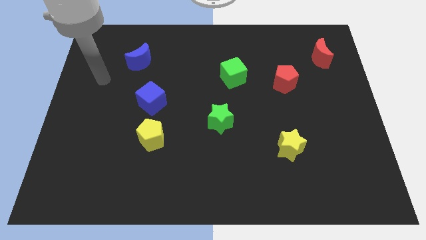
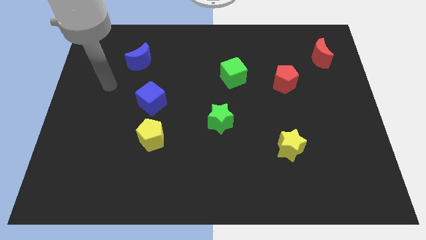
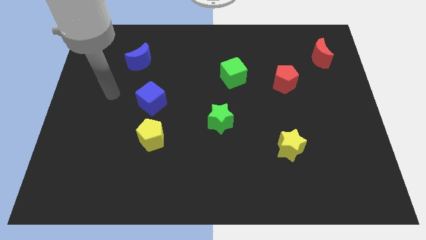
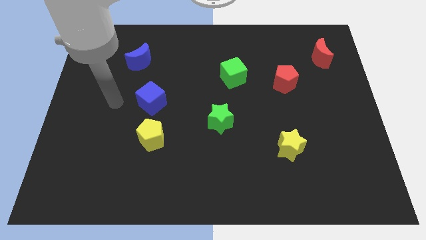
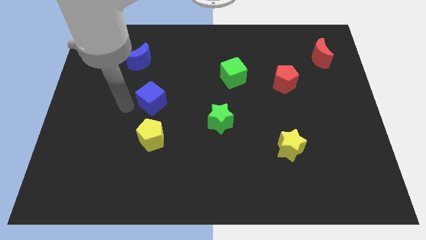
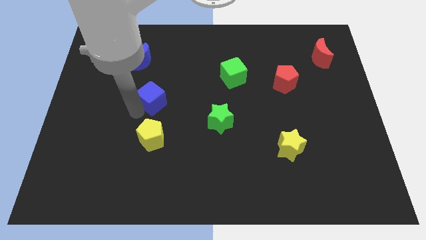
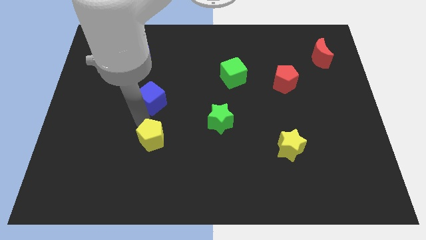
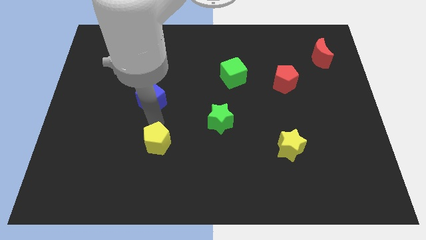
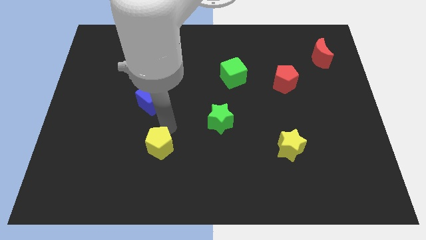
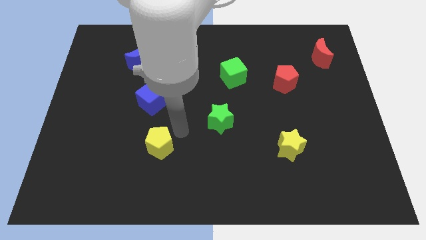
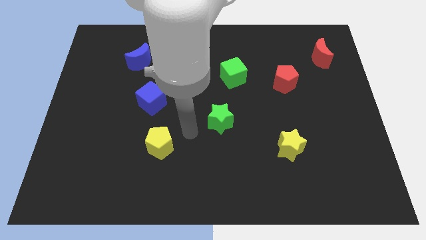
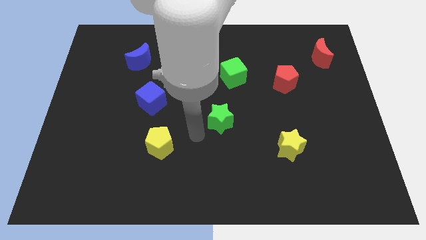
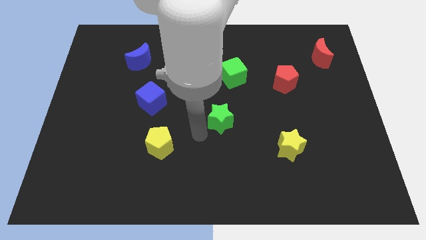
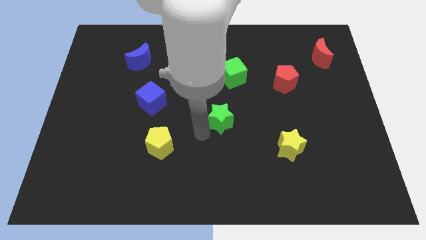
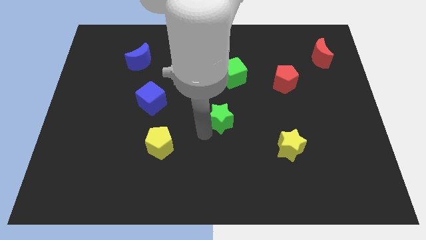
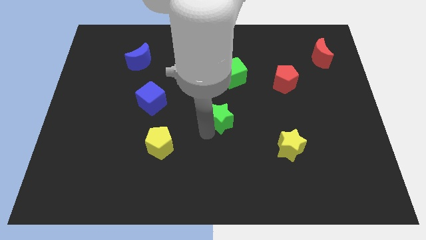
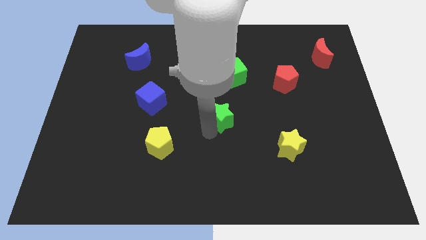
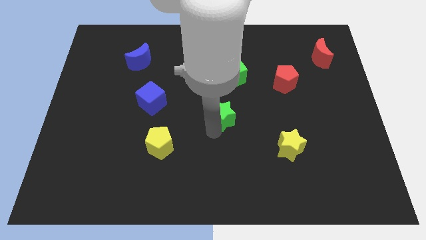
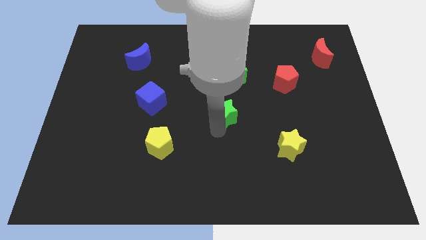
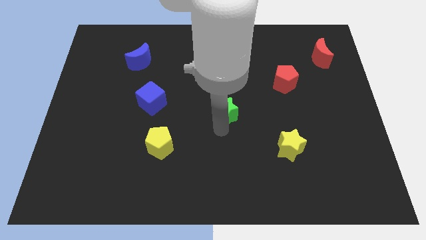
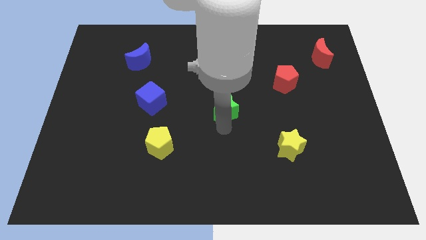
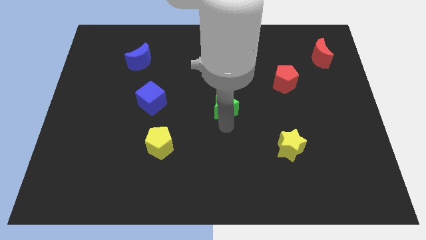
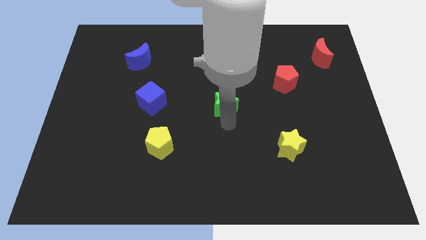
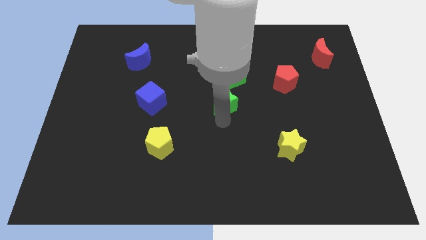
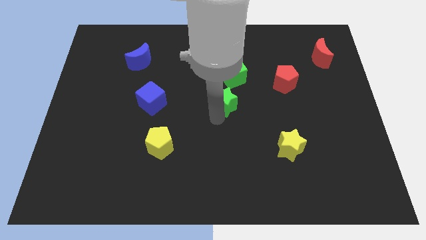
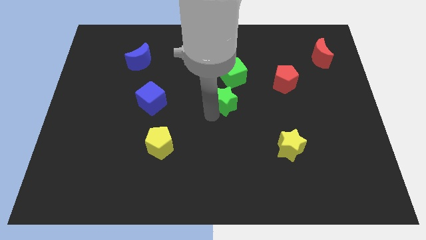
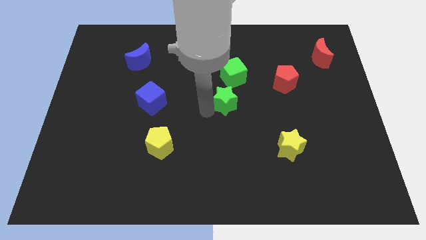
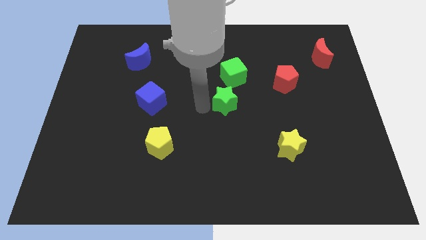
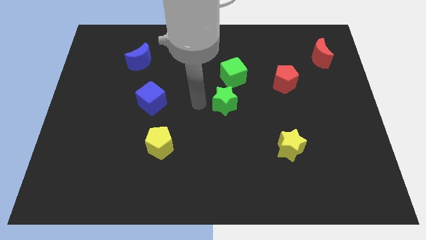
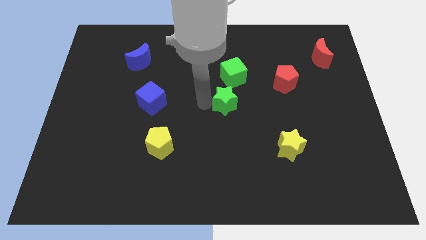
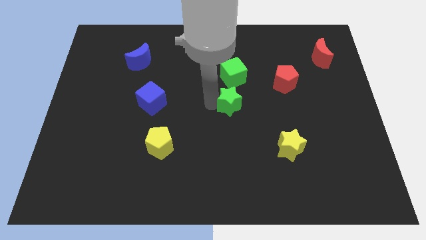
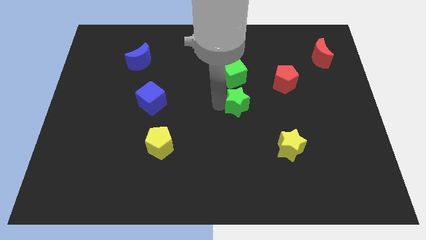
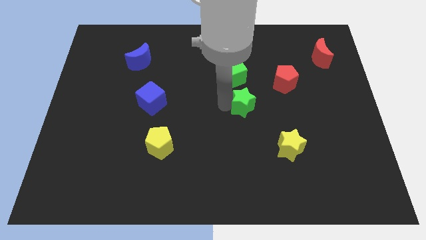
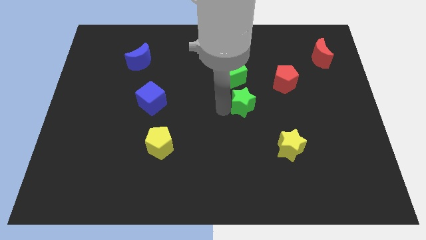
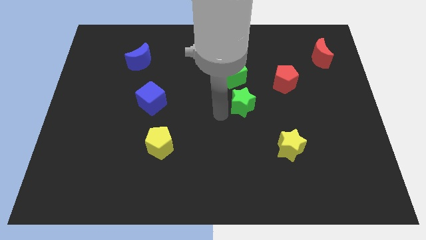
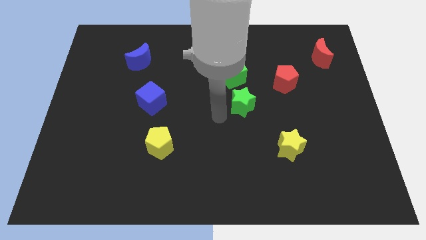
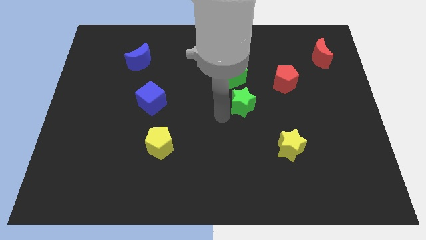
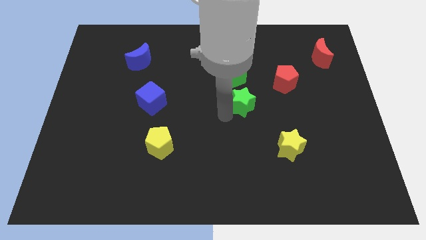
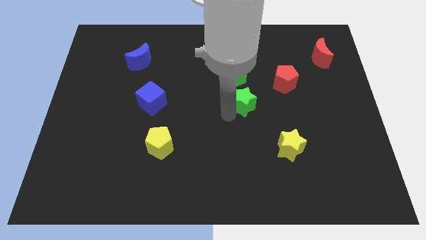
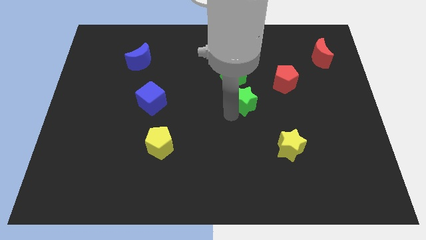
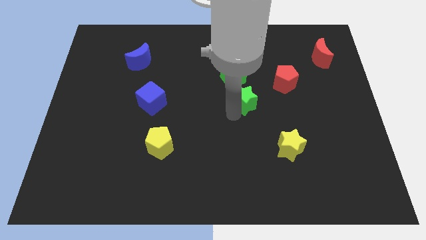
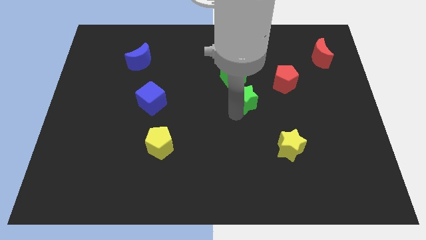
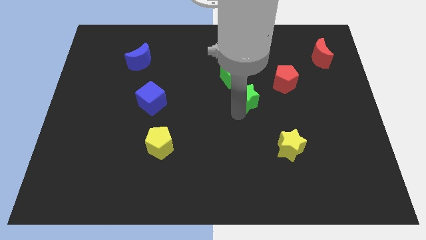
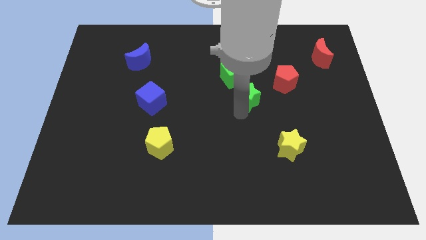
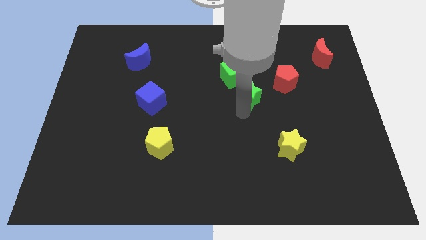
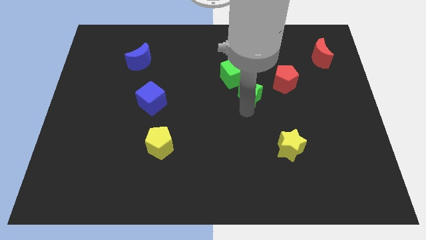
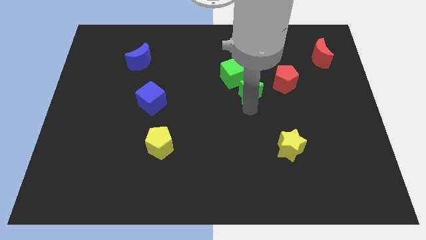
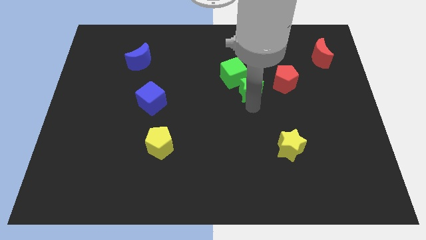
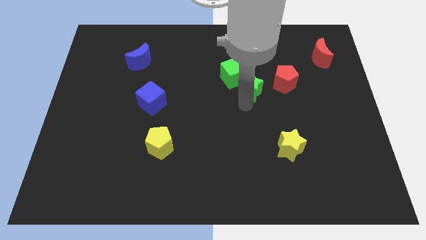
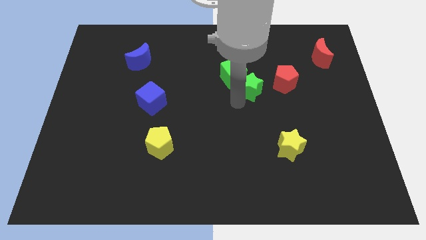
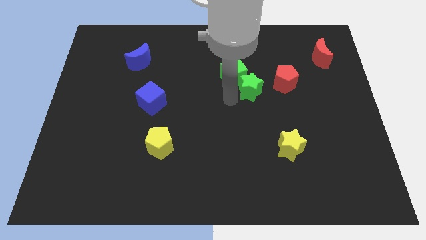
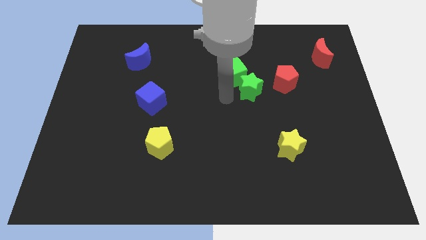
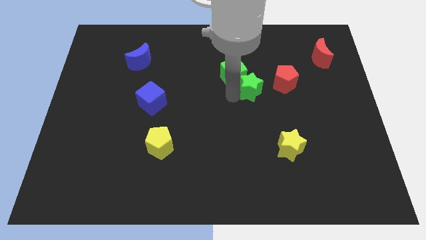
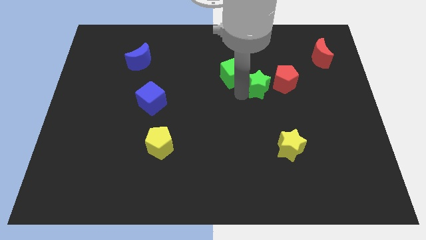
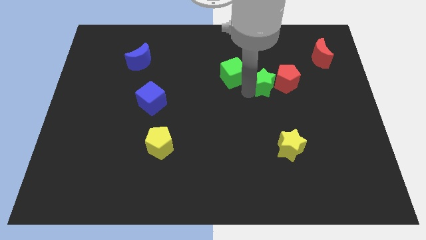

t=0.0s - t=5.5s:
put the green star to the red pentagon
